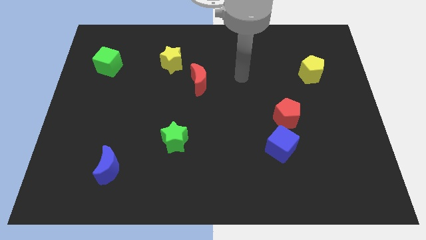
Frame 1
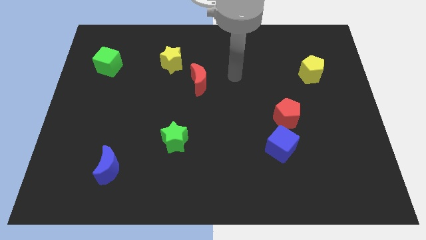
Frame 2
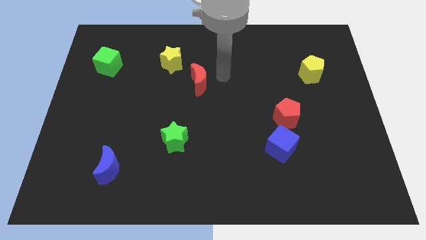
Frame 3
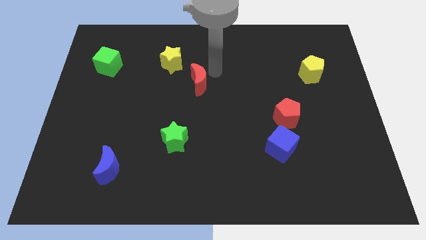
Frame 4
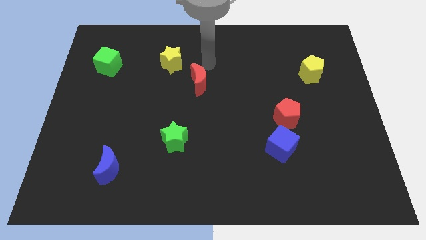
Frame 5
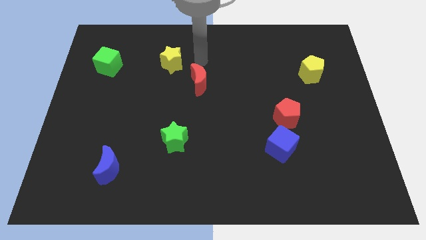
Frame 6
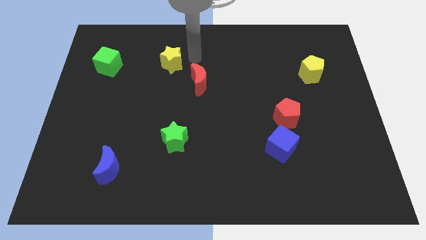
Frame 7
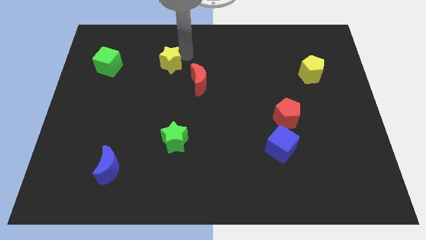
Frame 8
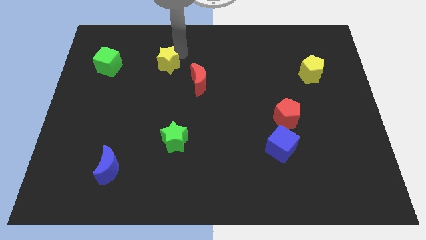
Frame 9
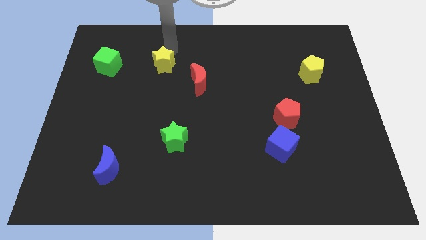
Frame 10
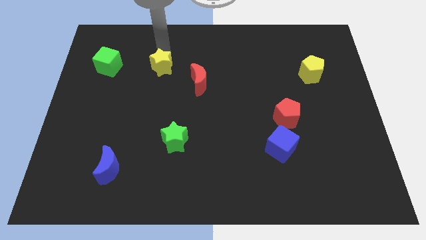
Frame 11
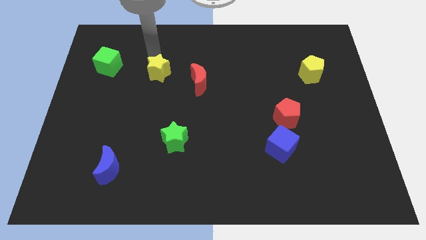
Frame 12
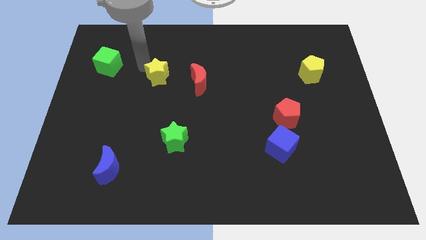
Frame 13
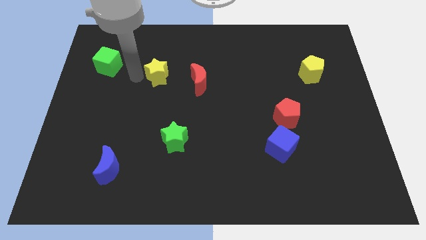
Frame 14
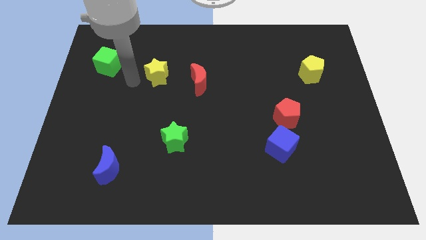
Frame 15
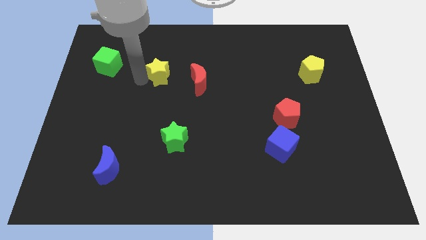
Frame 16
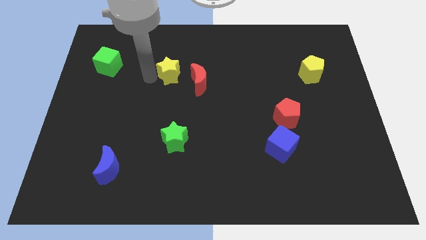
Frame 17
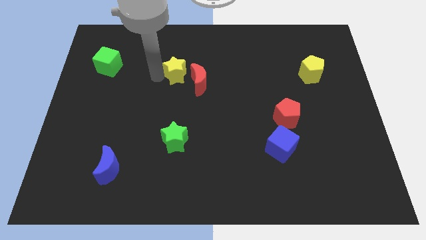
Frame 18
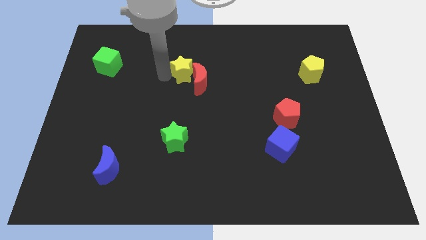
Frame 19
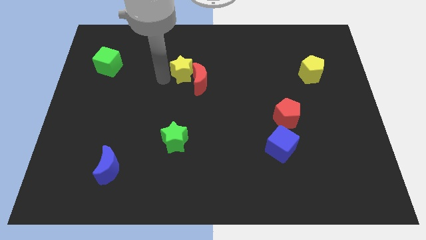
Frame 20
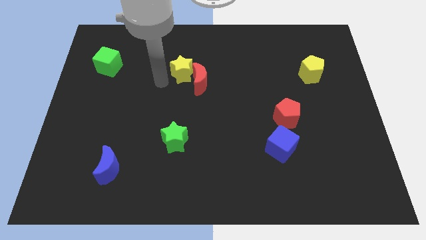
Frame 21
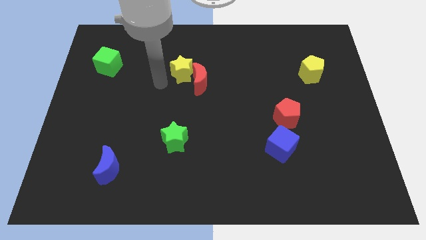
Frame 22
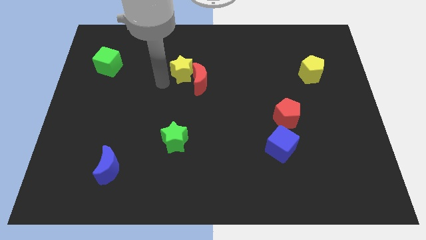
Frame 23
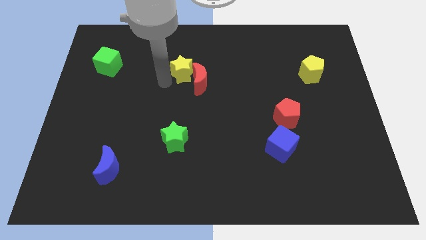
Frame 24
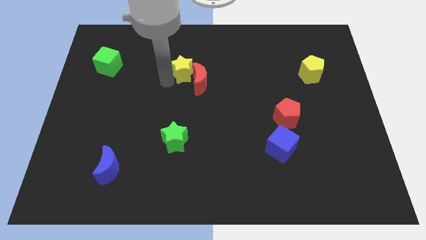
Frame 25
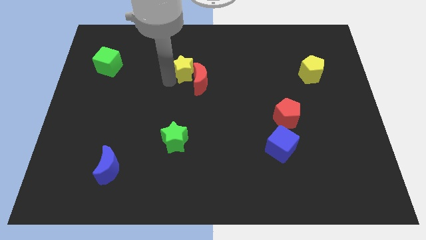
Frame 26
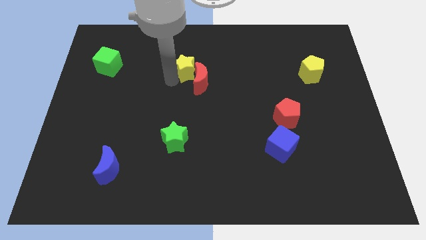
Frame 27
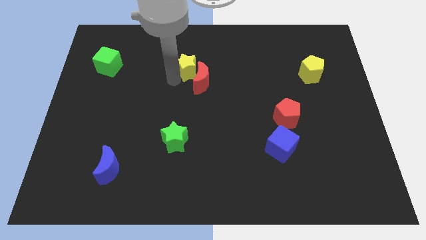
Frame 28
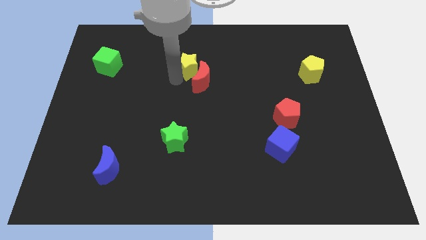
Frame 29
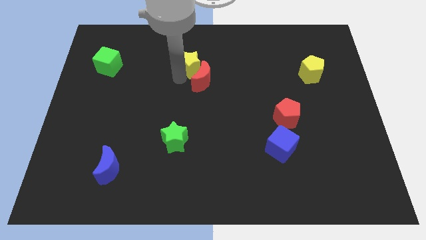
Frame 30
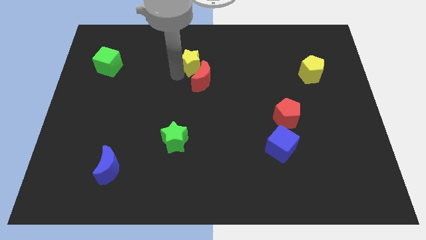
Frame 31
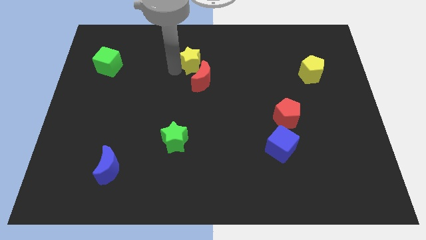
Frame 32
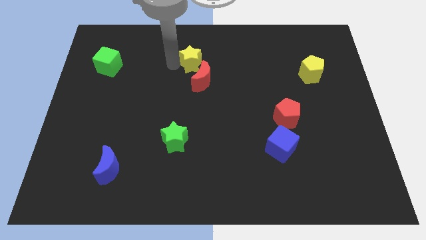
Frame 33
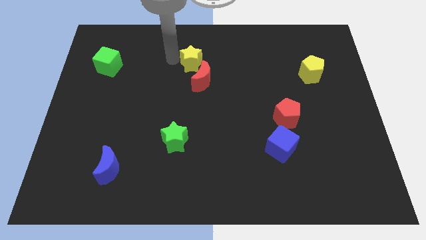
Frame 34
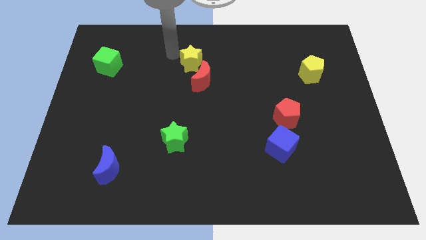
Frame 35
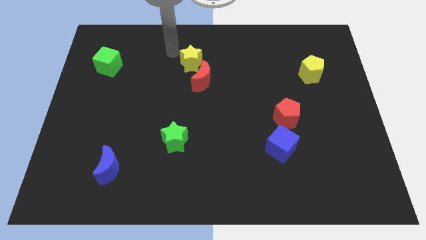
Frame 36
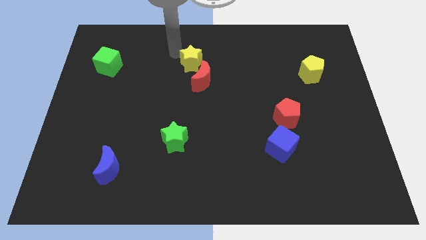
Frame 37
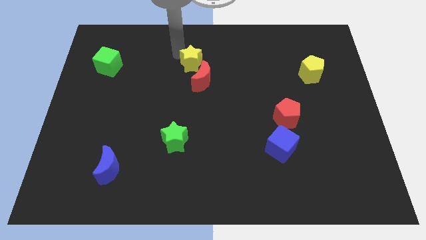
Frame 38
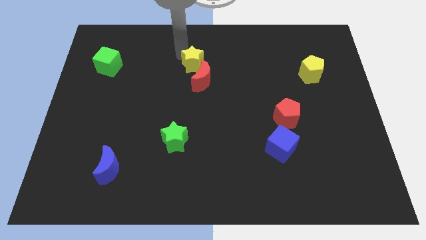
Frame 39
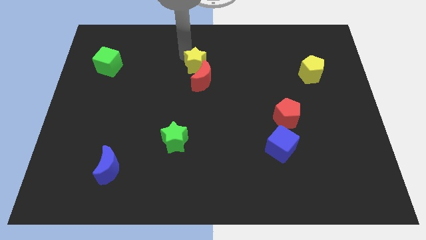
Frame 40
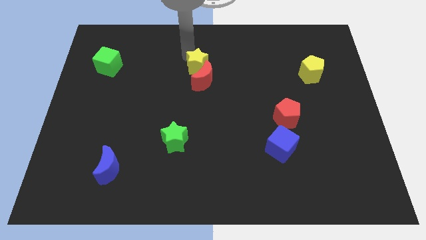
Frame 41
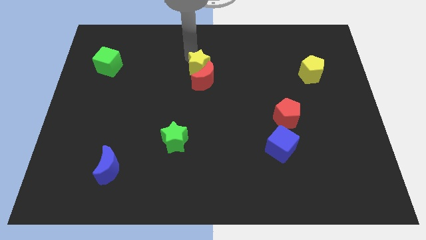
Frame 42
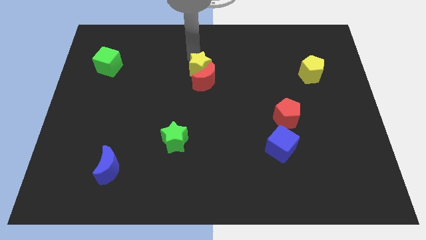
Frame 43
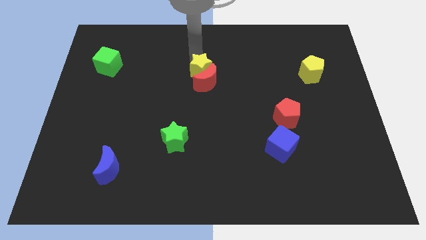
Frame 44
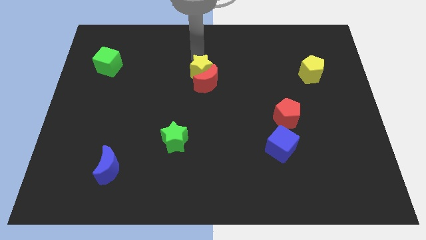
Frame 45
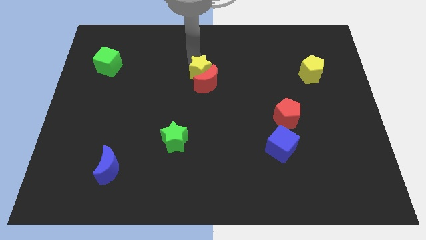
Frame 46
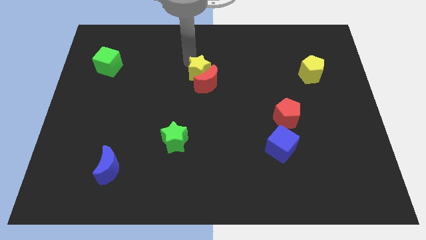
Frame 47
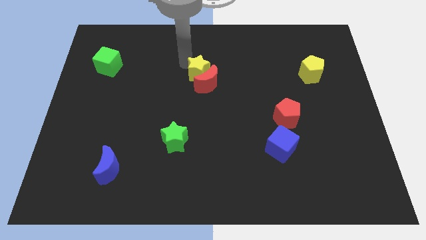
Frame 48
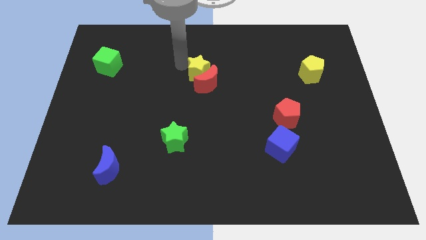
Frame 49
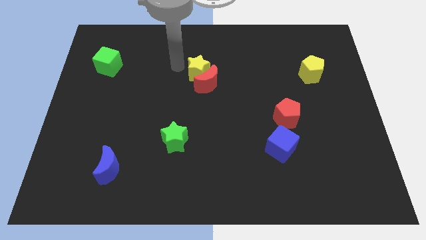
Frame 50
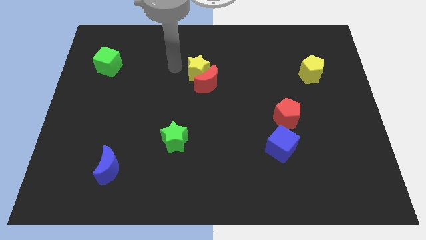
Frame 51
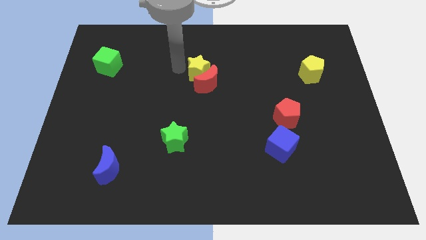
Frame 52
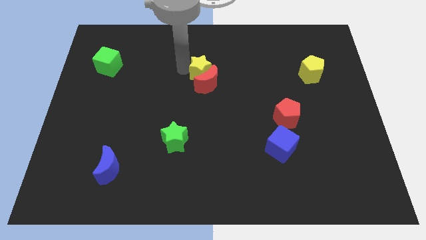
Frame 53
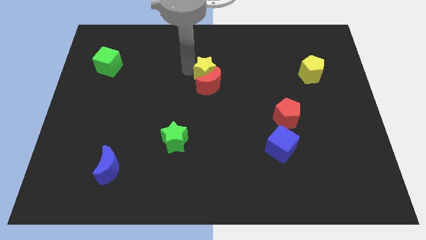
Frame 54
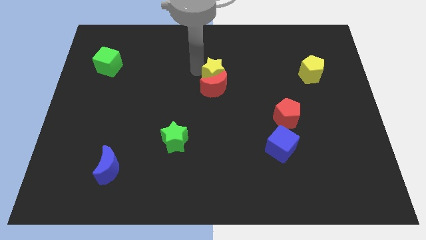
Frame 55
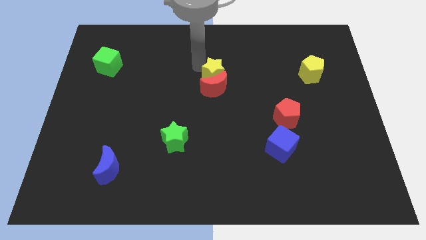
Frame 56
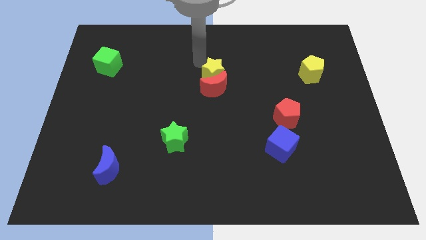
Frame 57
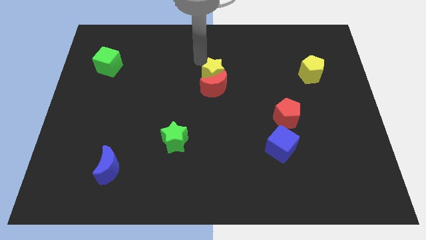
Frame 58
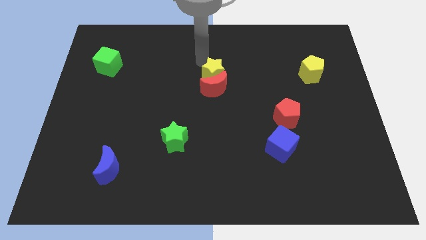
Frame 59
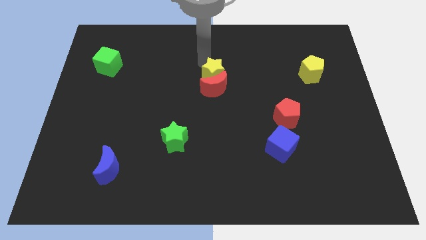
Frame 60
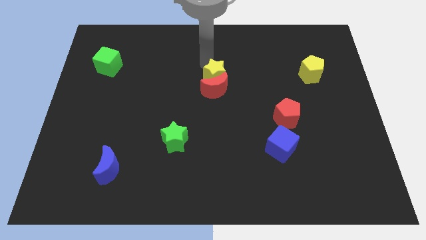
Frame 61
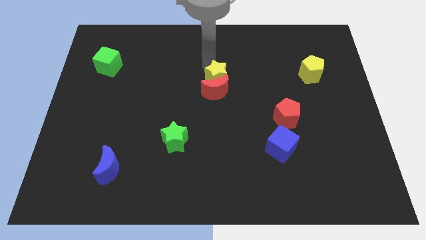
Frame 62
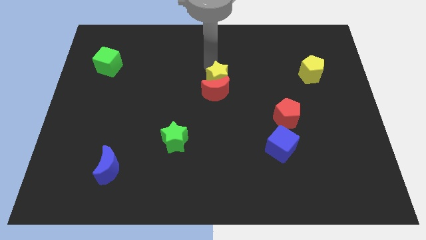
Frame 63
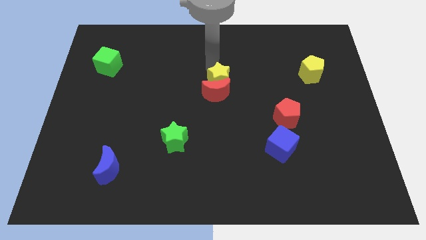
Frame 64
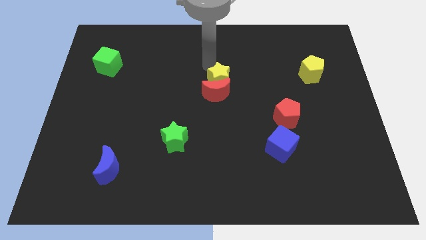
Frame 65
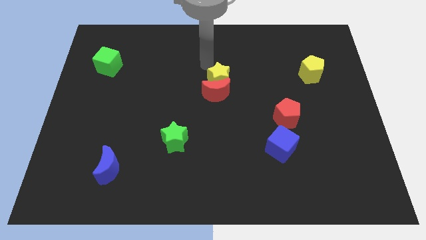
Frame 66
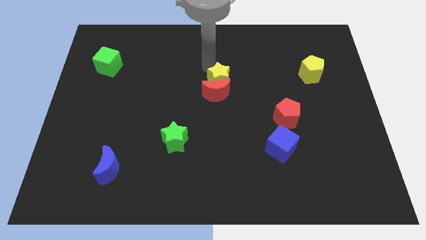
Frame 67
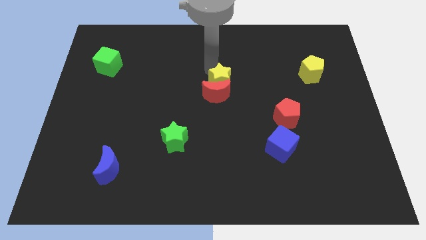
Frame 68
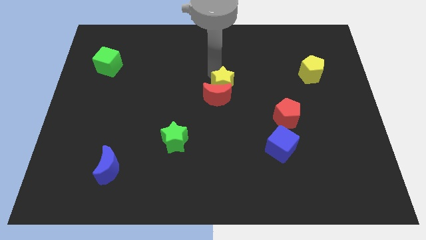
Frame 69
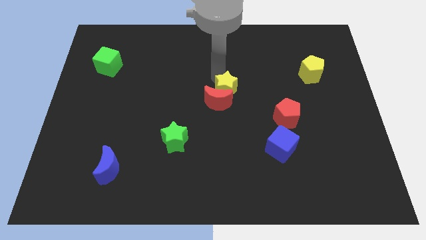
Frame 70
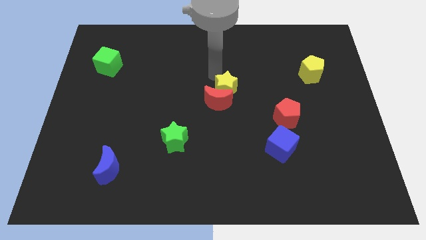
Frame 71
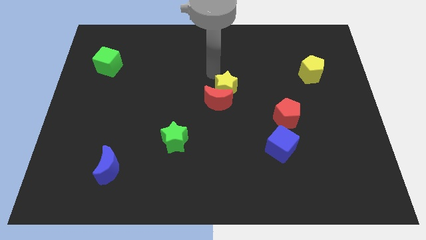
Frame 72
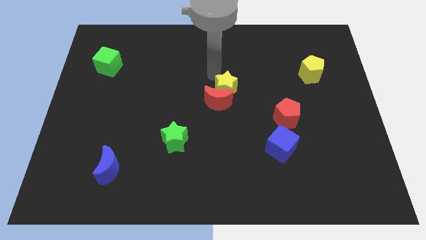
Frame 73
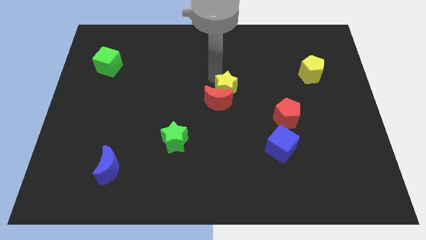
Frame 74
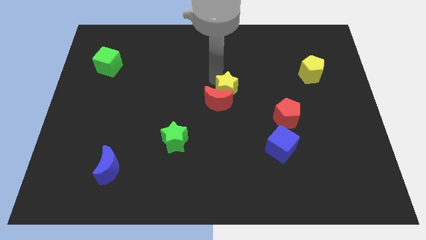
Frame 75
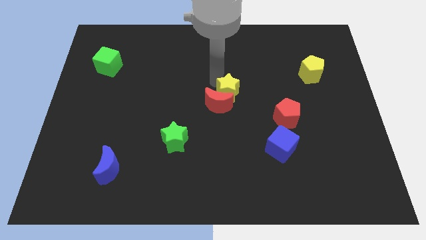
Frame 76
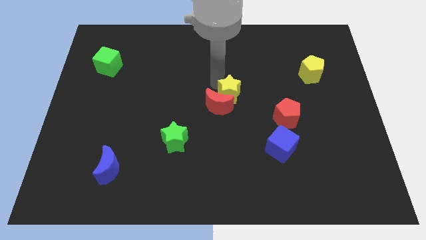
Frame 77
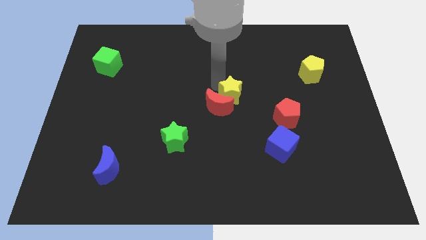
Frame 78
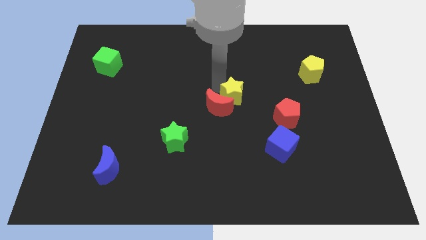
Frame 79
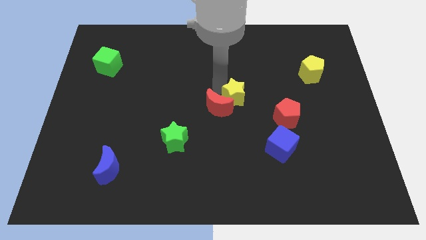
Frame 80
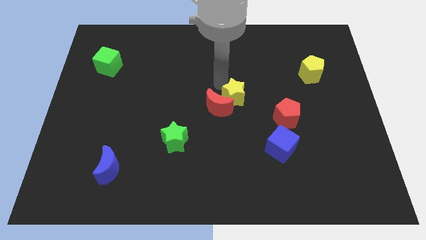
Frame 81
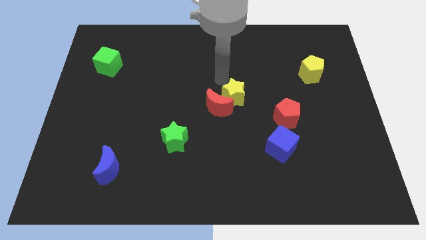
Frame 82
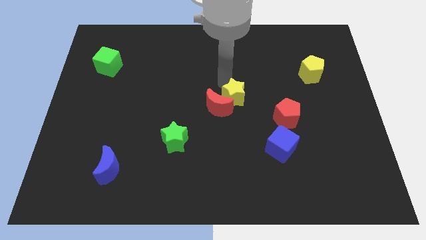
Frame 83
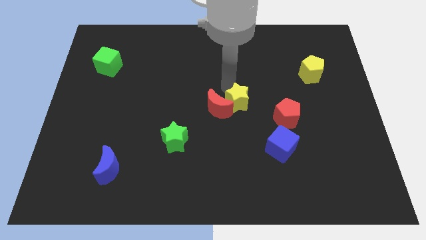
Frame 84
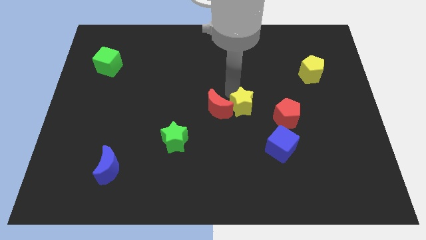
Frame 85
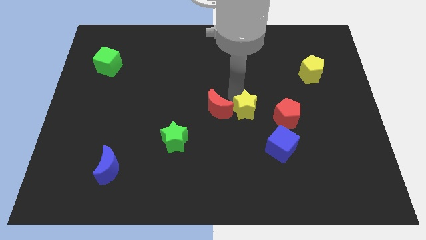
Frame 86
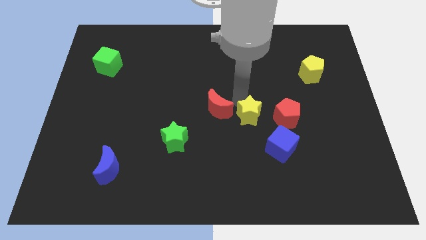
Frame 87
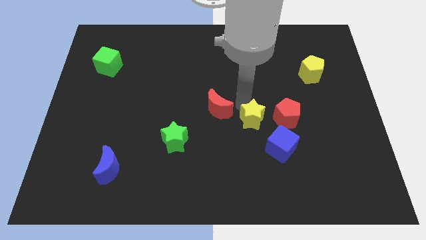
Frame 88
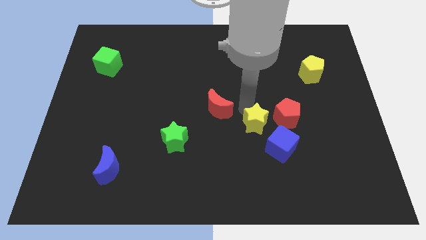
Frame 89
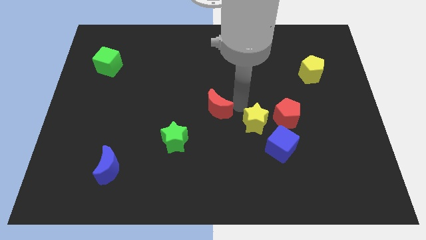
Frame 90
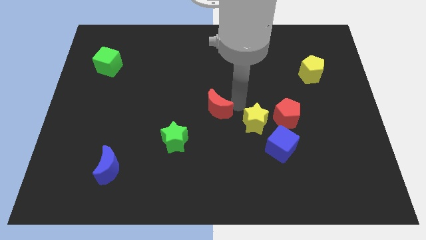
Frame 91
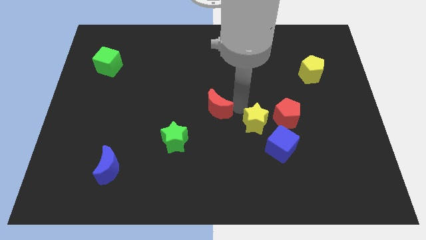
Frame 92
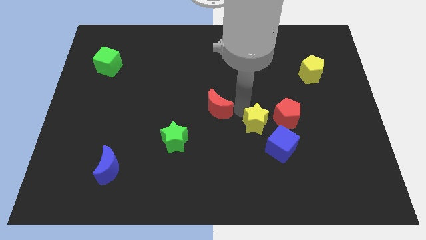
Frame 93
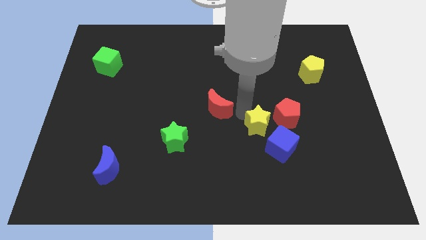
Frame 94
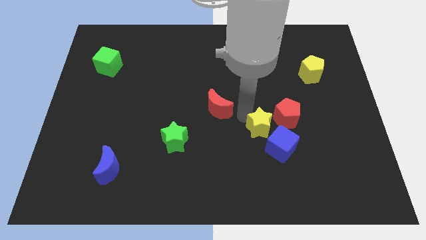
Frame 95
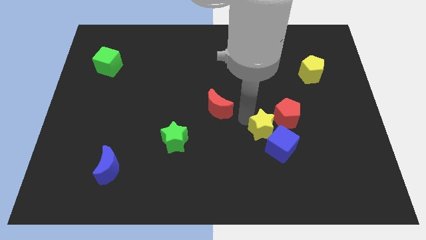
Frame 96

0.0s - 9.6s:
put the yellow star close to the blue cube
